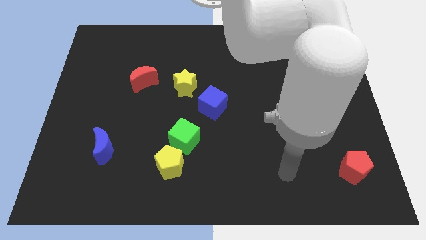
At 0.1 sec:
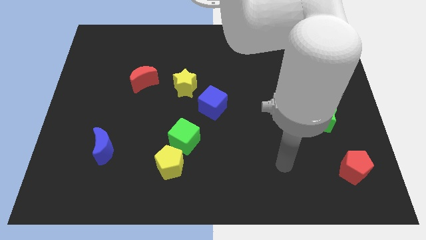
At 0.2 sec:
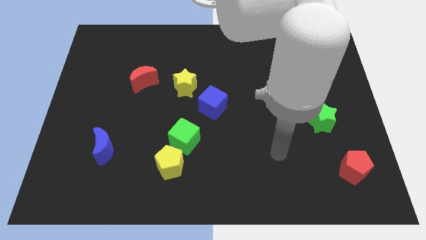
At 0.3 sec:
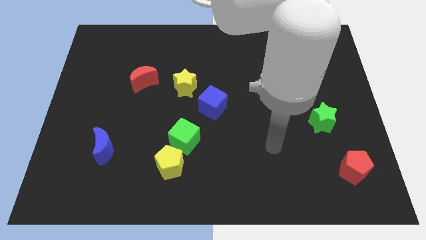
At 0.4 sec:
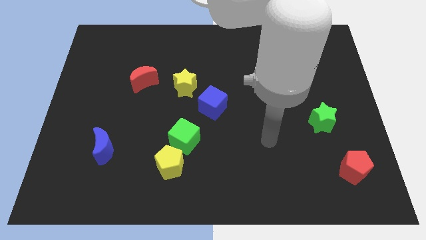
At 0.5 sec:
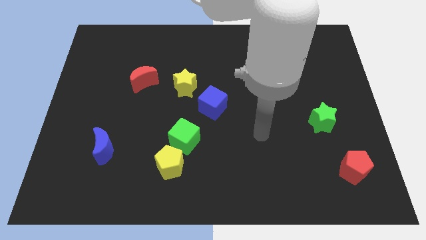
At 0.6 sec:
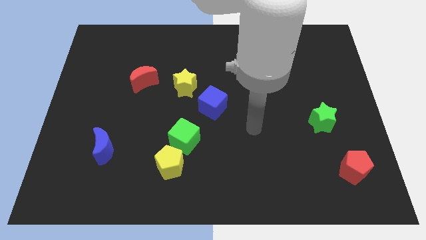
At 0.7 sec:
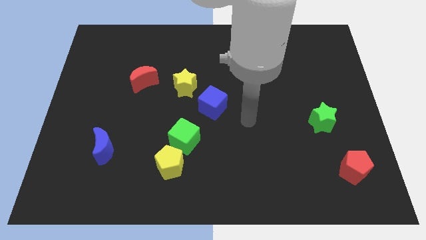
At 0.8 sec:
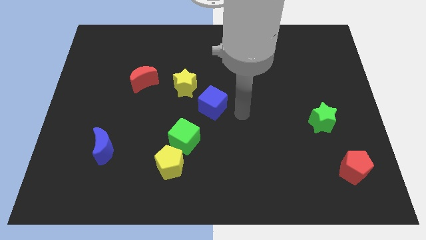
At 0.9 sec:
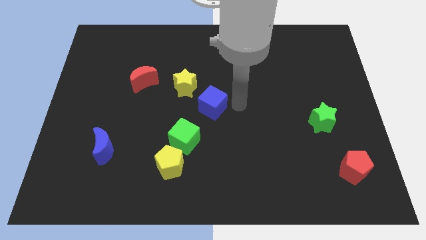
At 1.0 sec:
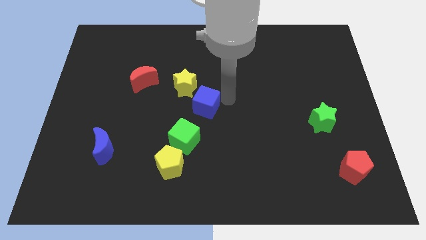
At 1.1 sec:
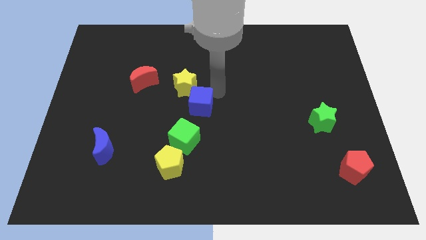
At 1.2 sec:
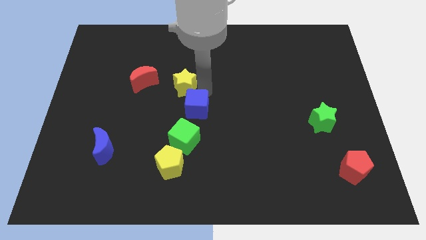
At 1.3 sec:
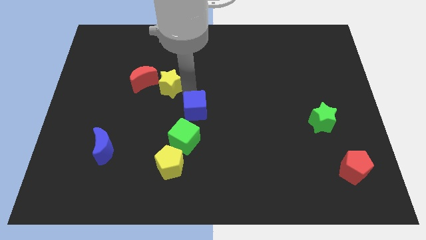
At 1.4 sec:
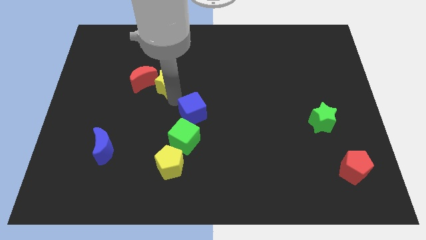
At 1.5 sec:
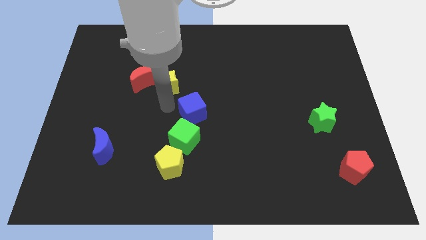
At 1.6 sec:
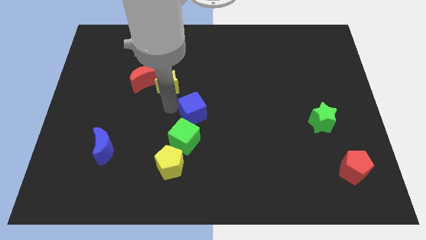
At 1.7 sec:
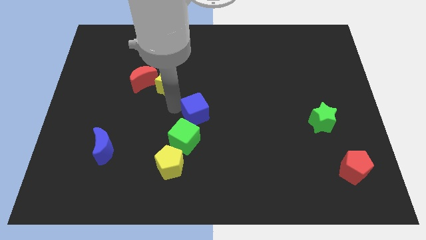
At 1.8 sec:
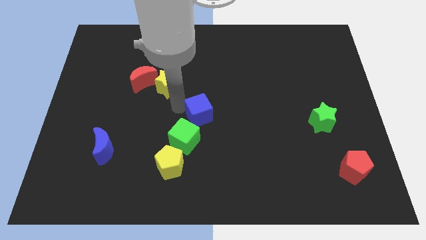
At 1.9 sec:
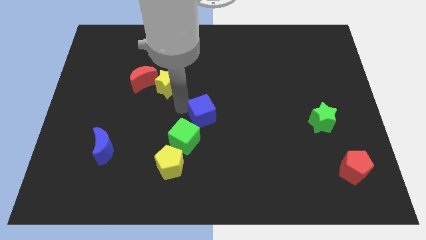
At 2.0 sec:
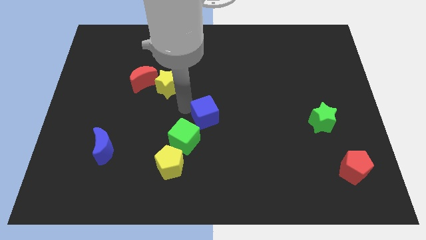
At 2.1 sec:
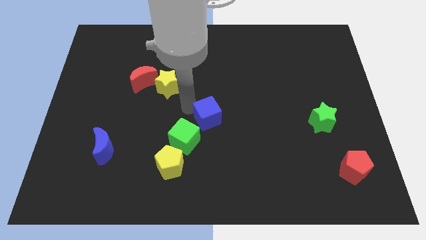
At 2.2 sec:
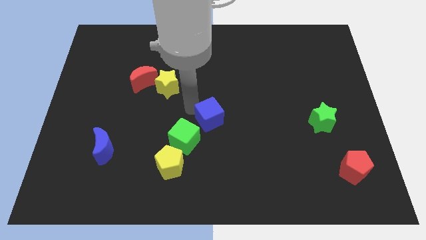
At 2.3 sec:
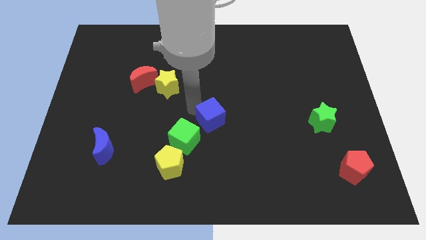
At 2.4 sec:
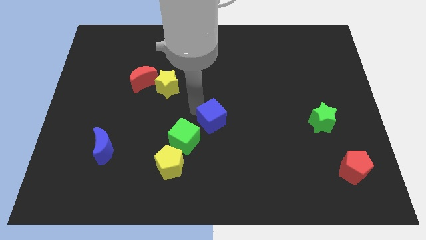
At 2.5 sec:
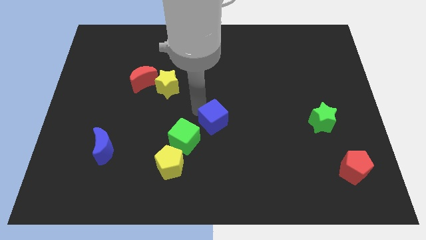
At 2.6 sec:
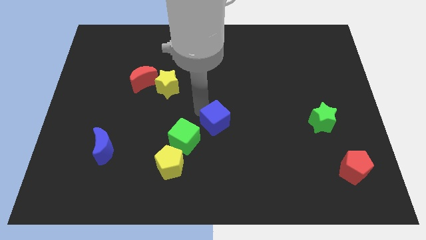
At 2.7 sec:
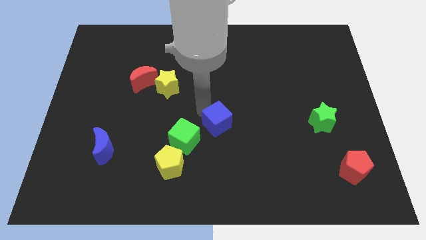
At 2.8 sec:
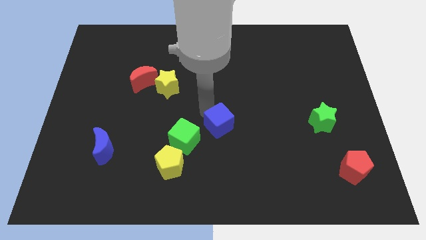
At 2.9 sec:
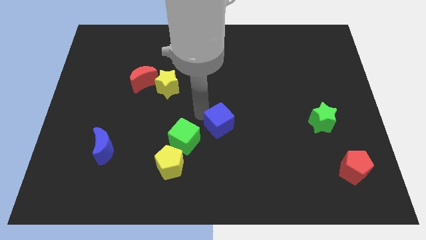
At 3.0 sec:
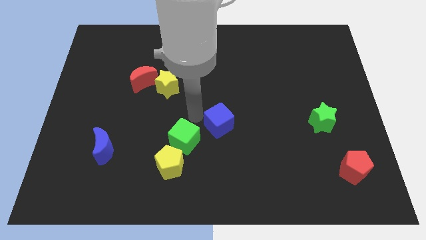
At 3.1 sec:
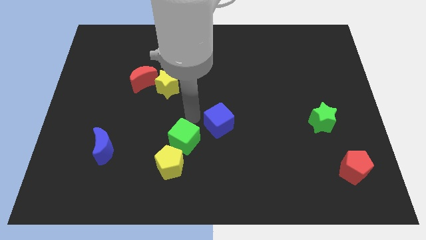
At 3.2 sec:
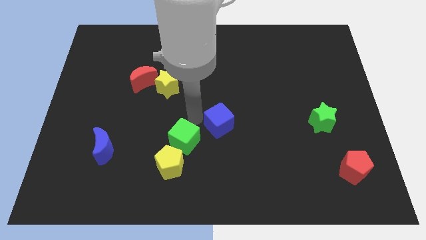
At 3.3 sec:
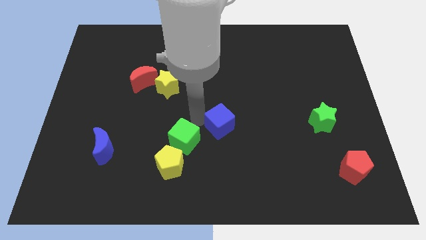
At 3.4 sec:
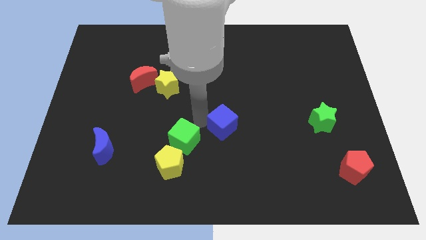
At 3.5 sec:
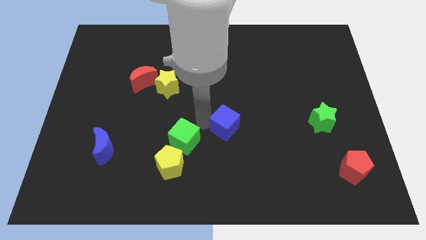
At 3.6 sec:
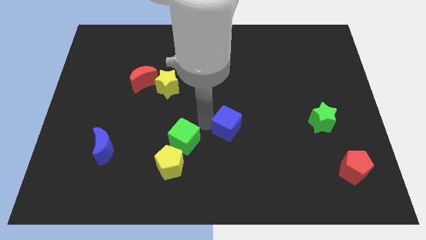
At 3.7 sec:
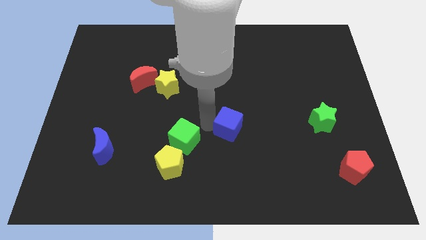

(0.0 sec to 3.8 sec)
slightly move the blue cube down and right

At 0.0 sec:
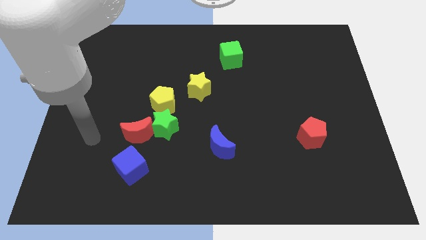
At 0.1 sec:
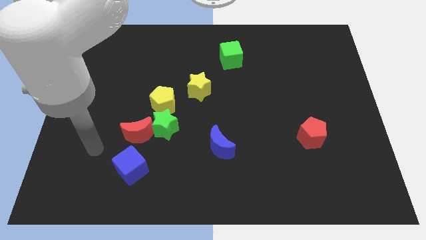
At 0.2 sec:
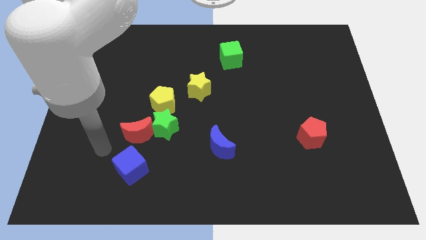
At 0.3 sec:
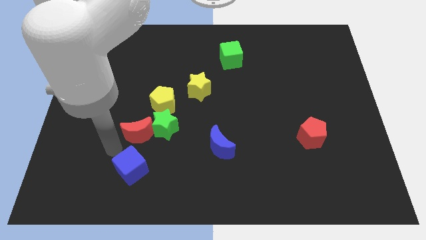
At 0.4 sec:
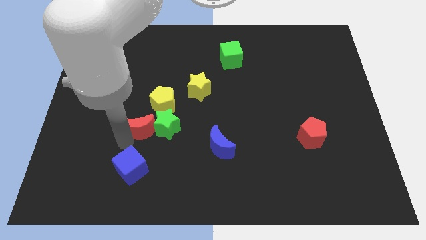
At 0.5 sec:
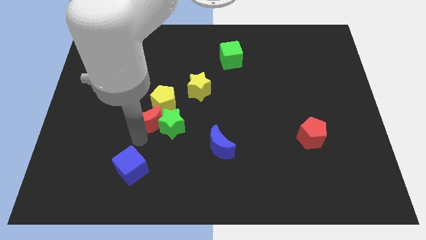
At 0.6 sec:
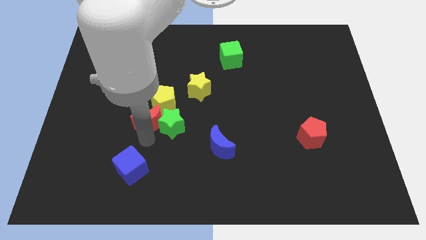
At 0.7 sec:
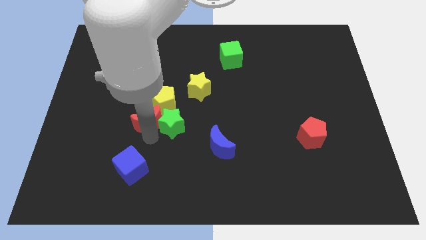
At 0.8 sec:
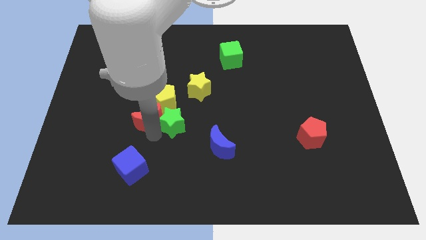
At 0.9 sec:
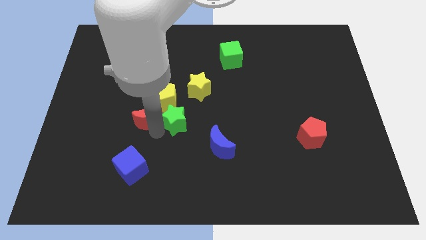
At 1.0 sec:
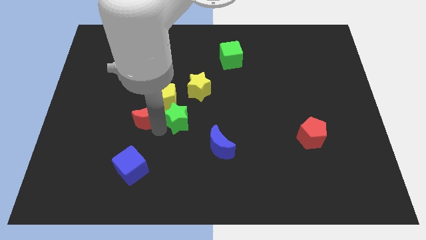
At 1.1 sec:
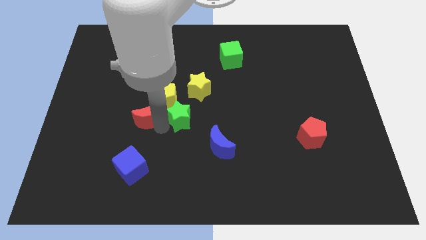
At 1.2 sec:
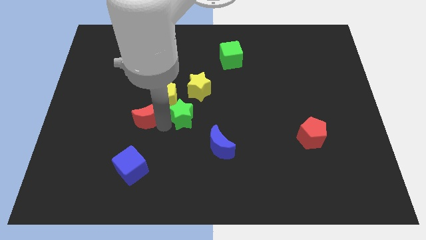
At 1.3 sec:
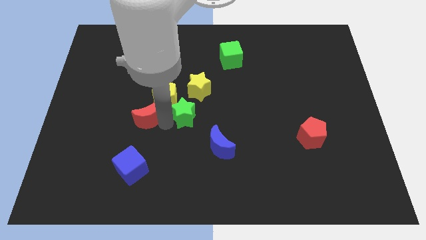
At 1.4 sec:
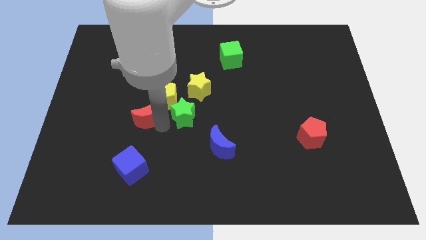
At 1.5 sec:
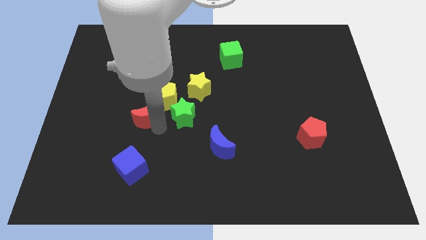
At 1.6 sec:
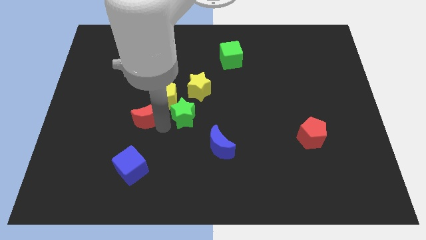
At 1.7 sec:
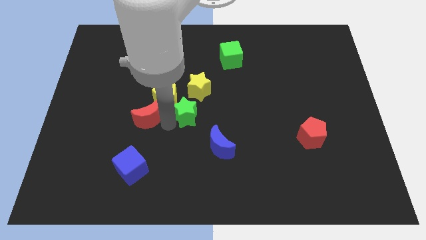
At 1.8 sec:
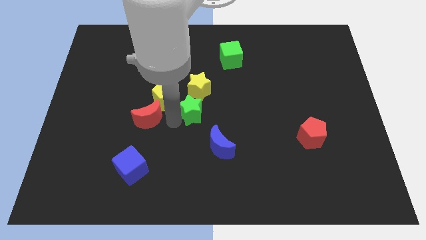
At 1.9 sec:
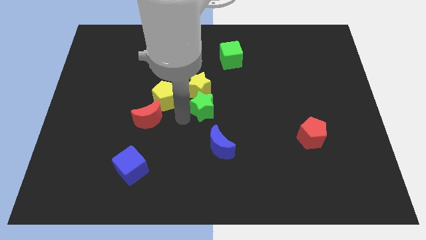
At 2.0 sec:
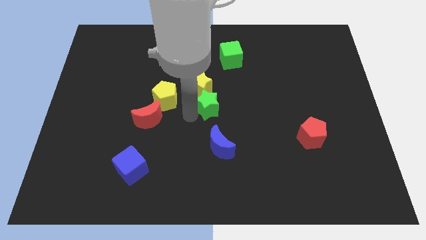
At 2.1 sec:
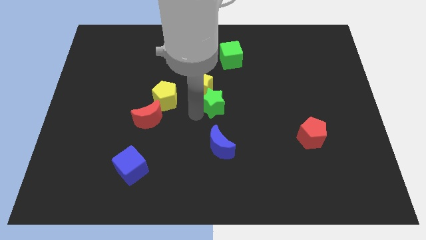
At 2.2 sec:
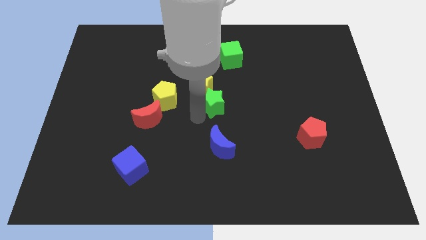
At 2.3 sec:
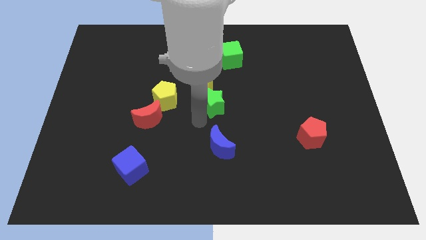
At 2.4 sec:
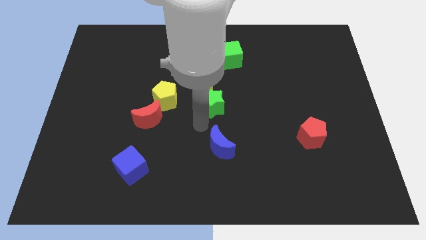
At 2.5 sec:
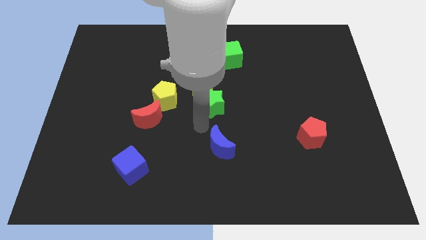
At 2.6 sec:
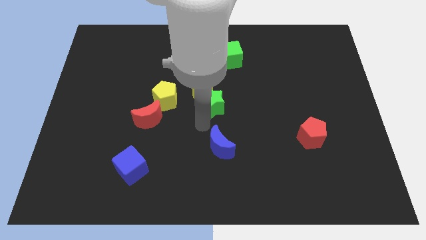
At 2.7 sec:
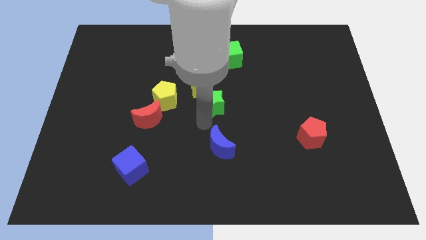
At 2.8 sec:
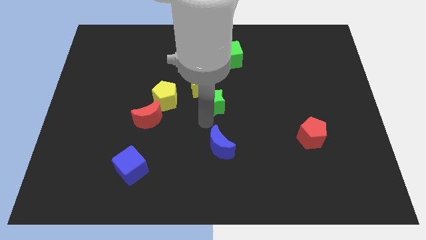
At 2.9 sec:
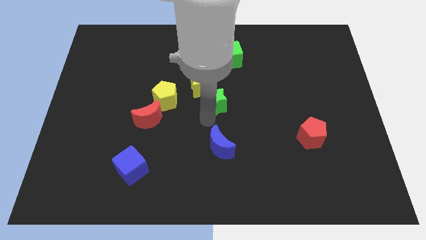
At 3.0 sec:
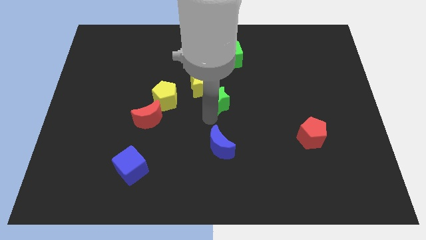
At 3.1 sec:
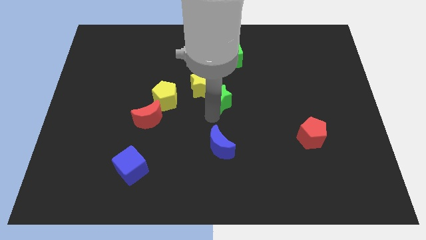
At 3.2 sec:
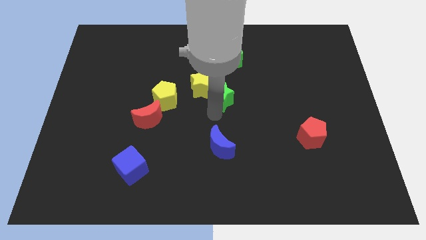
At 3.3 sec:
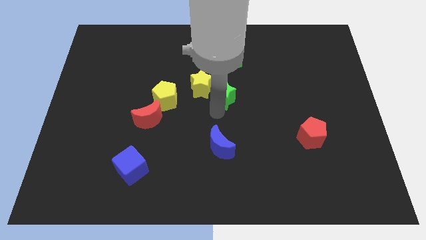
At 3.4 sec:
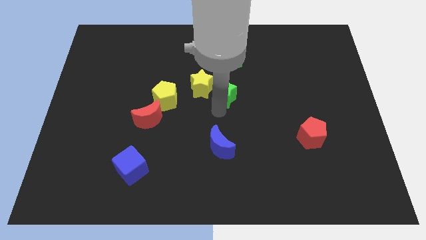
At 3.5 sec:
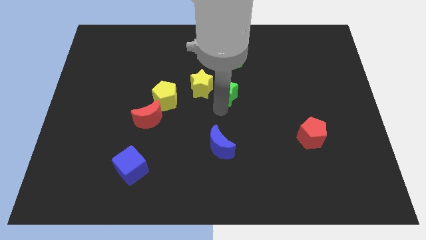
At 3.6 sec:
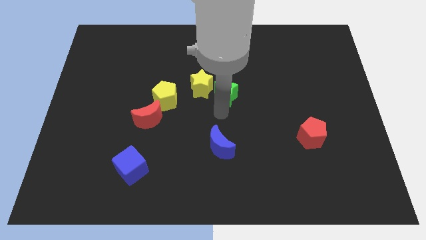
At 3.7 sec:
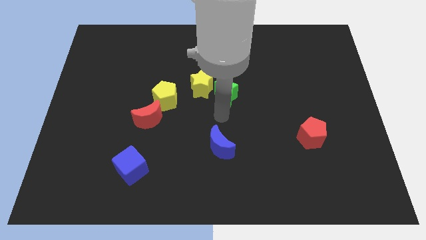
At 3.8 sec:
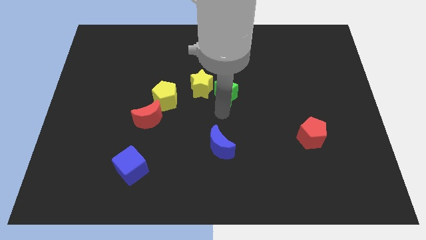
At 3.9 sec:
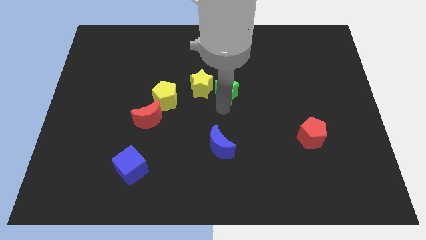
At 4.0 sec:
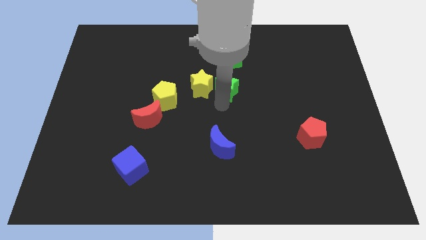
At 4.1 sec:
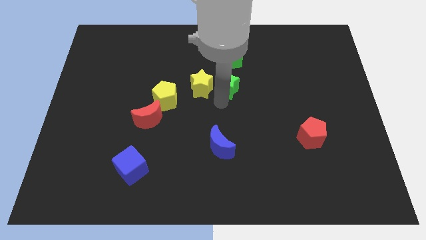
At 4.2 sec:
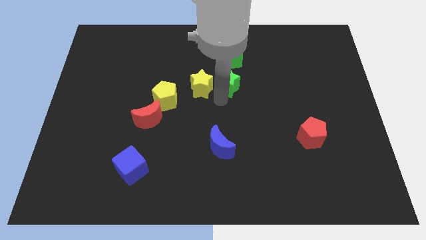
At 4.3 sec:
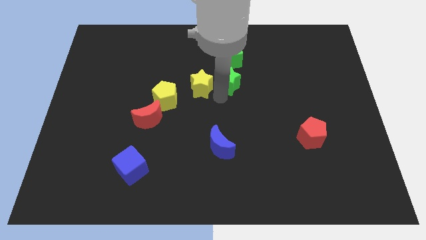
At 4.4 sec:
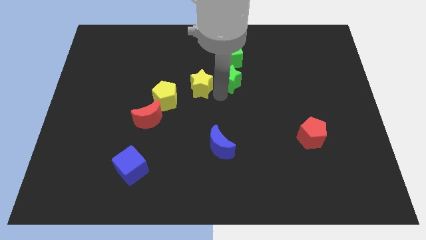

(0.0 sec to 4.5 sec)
slide the green star upwards and to the right

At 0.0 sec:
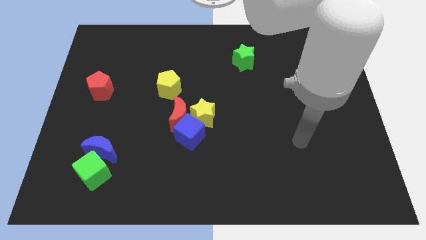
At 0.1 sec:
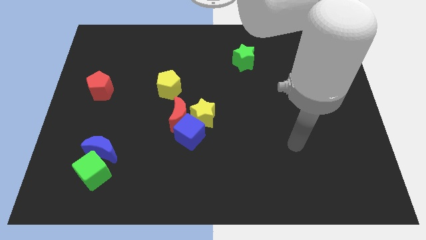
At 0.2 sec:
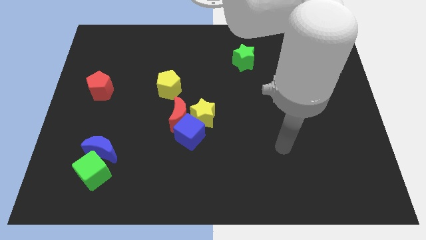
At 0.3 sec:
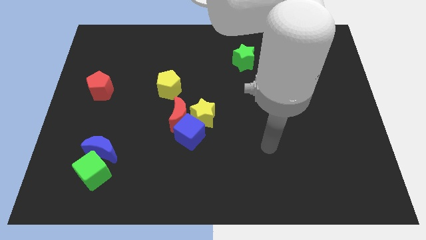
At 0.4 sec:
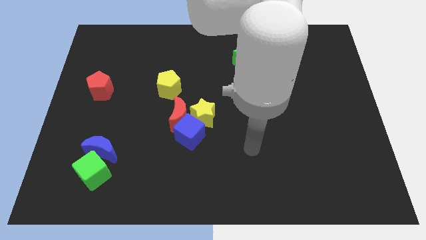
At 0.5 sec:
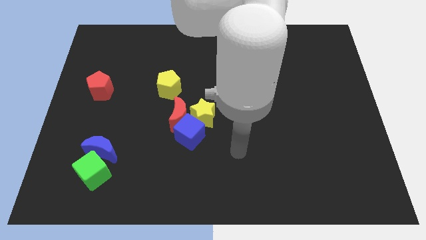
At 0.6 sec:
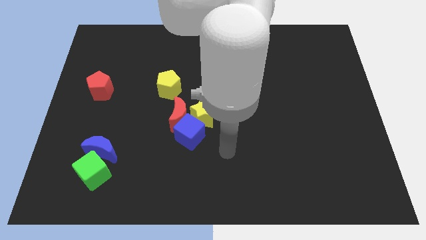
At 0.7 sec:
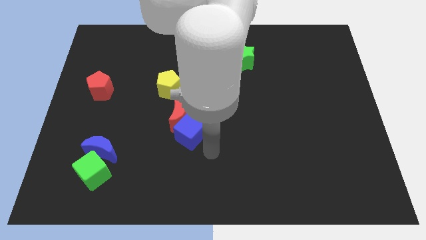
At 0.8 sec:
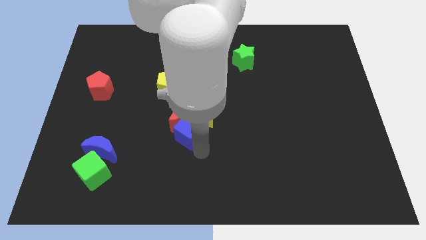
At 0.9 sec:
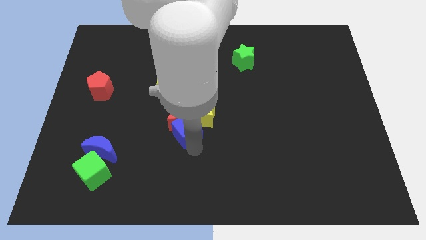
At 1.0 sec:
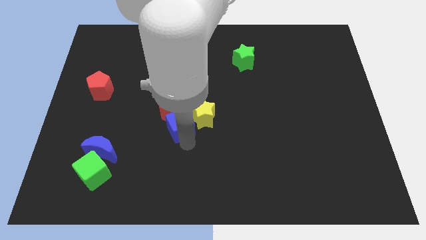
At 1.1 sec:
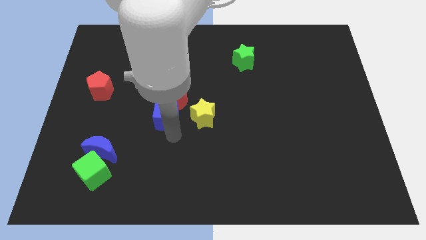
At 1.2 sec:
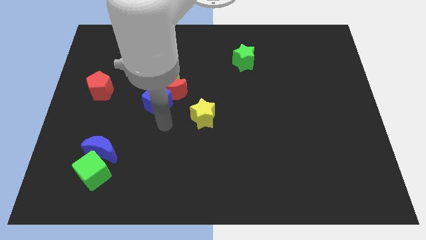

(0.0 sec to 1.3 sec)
slightly slide the red moon up
